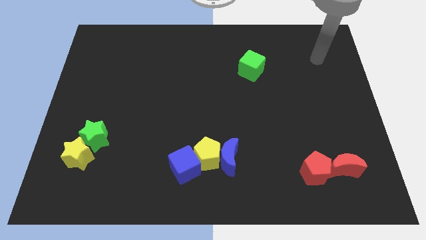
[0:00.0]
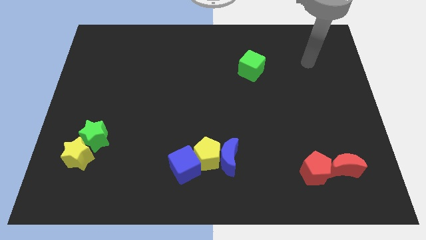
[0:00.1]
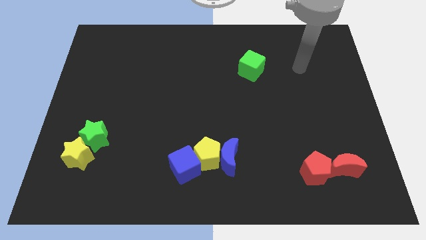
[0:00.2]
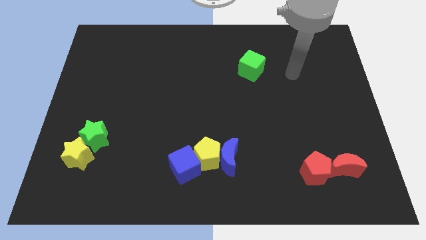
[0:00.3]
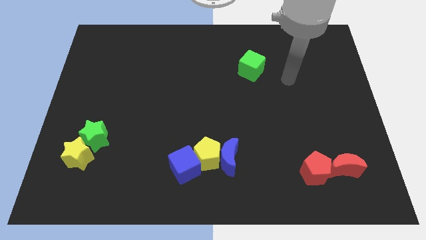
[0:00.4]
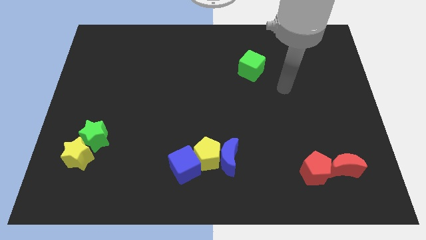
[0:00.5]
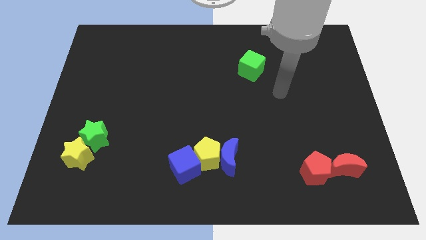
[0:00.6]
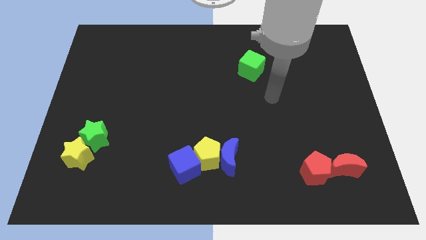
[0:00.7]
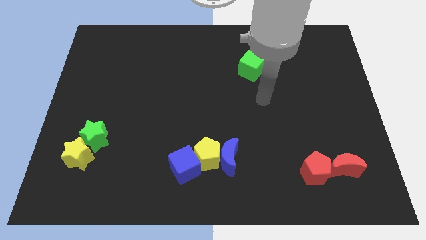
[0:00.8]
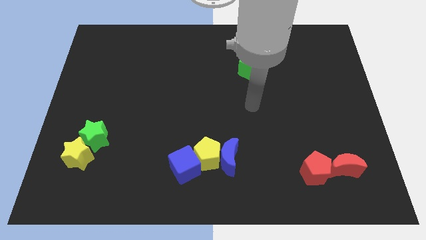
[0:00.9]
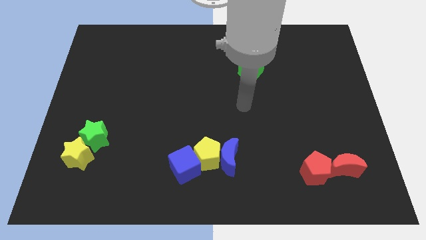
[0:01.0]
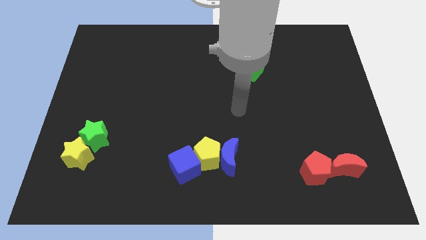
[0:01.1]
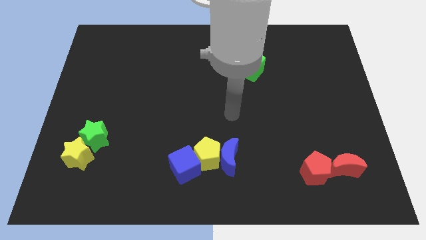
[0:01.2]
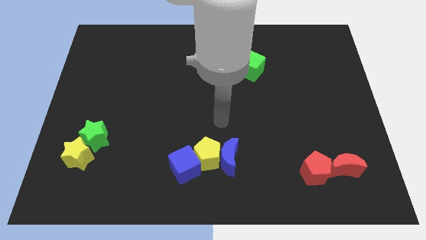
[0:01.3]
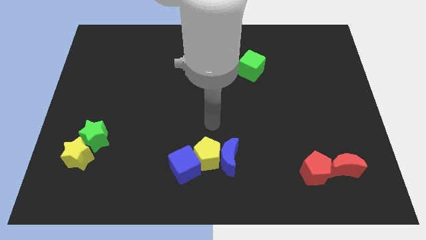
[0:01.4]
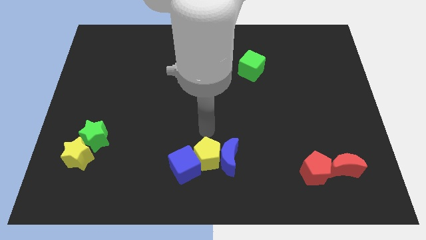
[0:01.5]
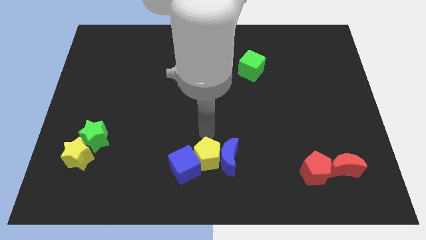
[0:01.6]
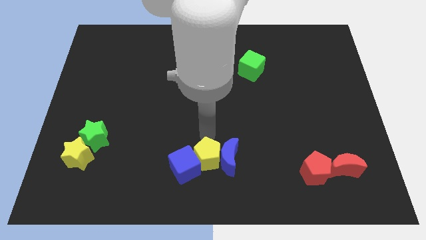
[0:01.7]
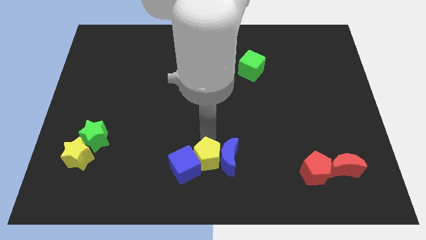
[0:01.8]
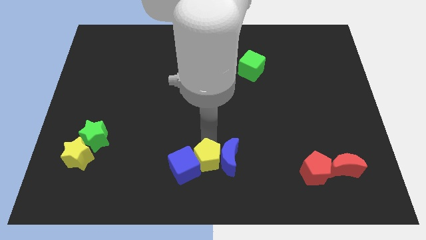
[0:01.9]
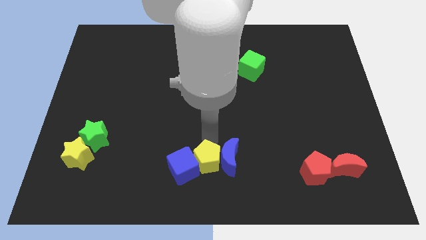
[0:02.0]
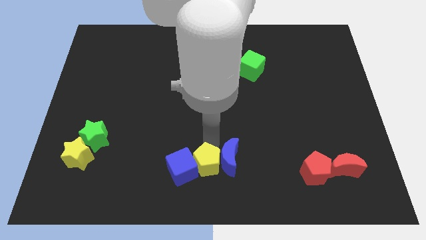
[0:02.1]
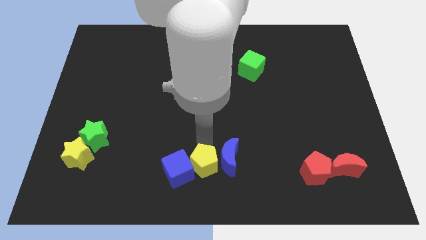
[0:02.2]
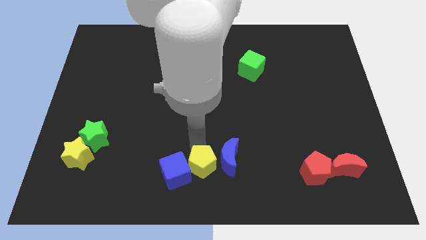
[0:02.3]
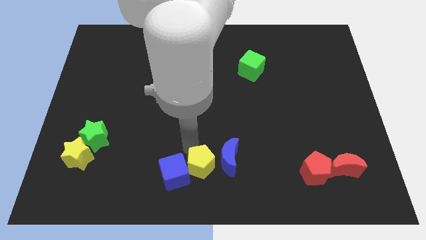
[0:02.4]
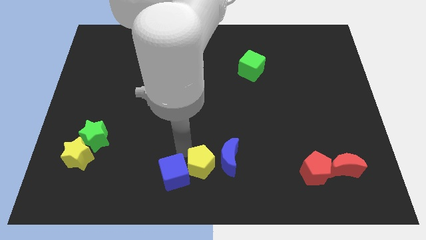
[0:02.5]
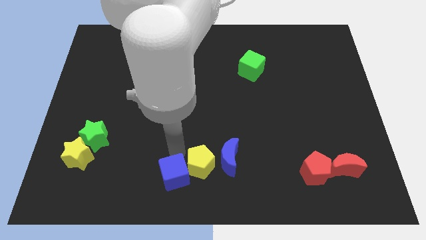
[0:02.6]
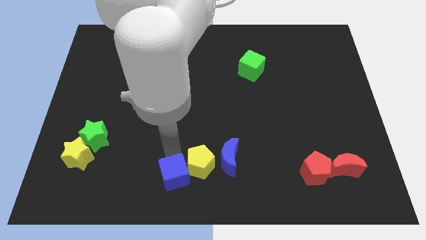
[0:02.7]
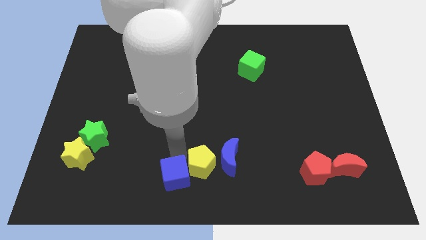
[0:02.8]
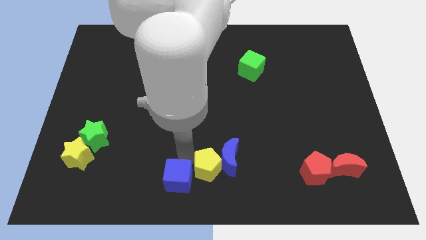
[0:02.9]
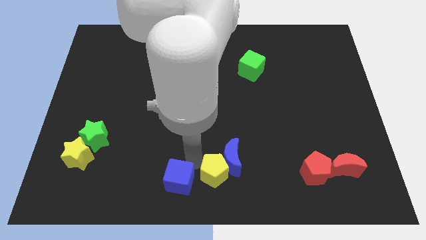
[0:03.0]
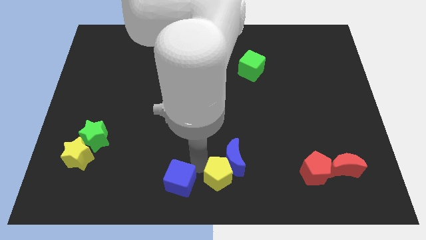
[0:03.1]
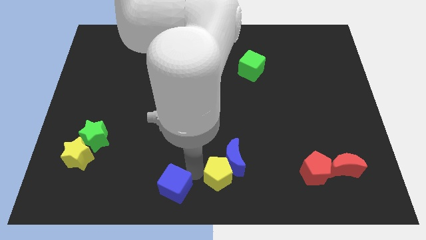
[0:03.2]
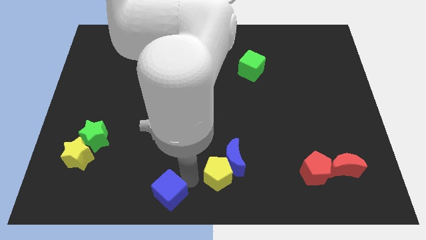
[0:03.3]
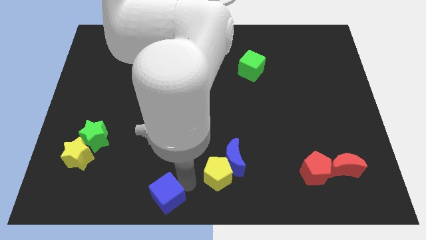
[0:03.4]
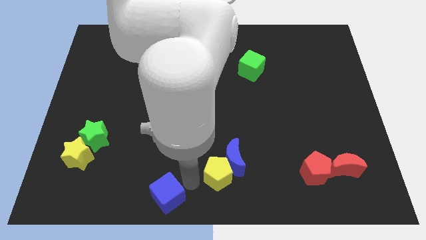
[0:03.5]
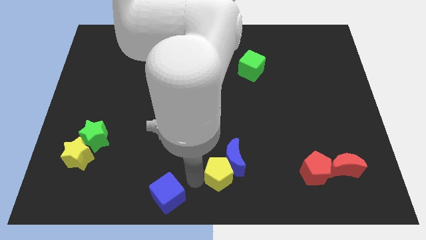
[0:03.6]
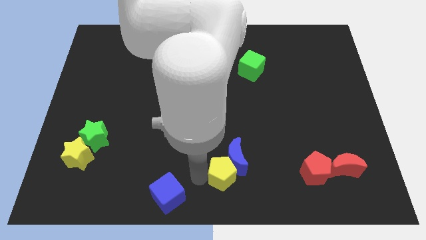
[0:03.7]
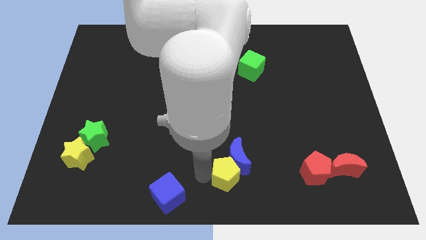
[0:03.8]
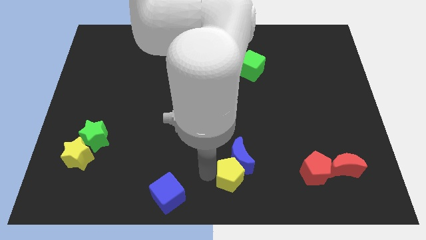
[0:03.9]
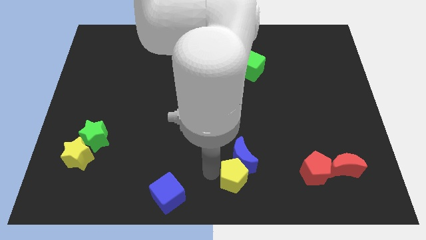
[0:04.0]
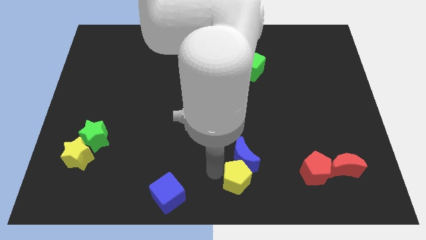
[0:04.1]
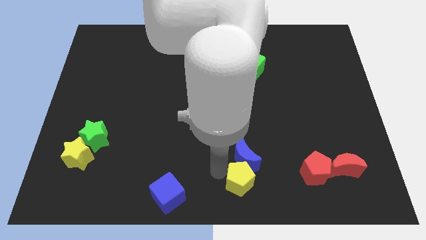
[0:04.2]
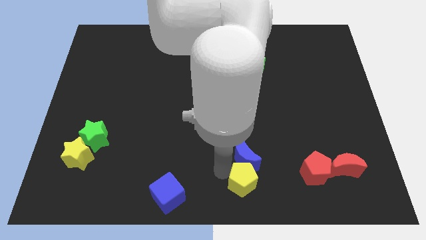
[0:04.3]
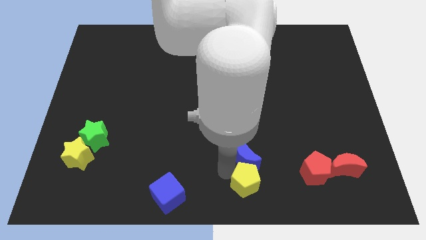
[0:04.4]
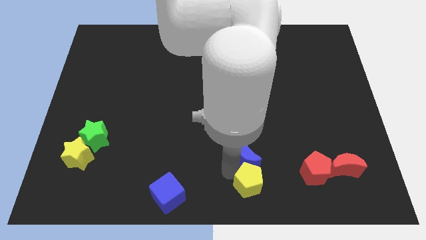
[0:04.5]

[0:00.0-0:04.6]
slightly slide the yellow pentagon right

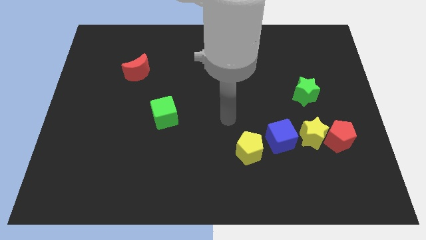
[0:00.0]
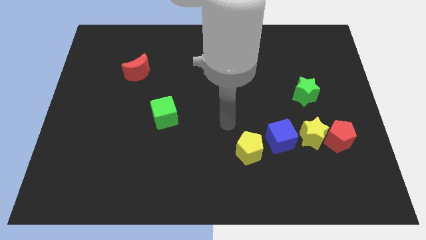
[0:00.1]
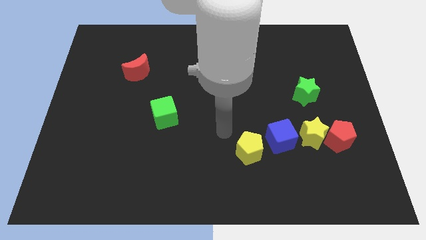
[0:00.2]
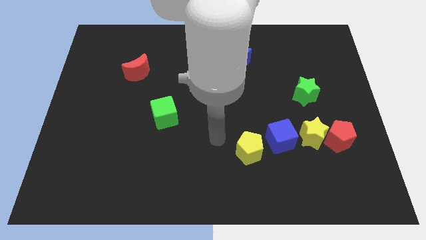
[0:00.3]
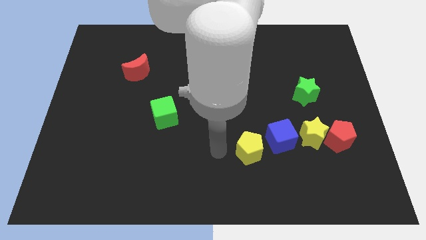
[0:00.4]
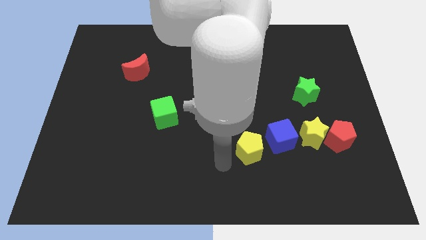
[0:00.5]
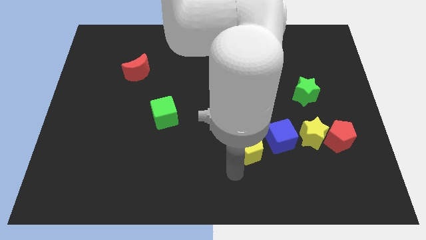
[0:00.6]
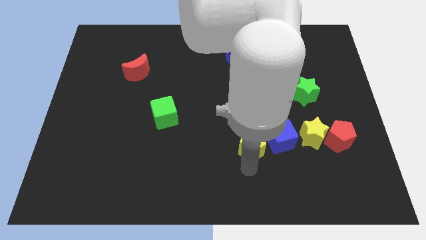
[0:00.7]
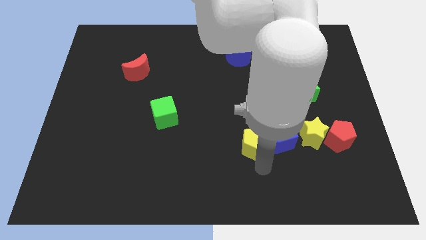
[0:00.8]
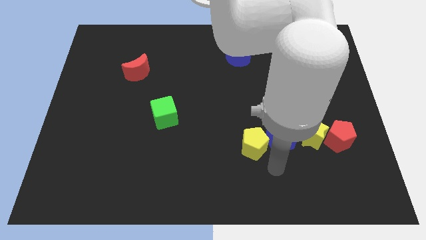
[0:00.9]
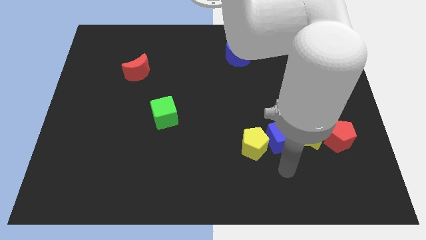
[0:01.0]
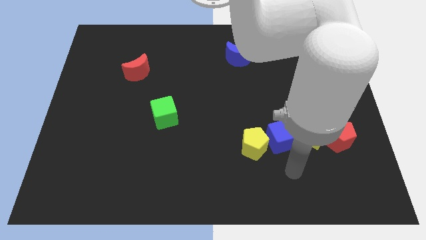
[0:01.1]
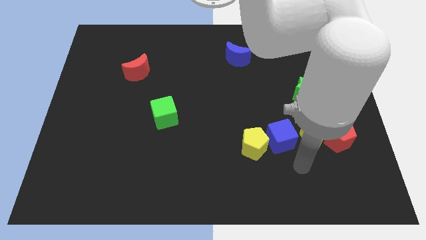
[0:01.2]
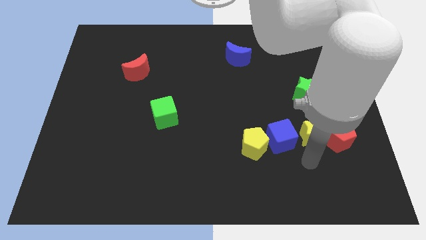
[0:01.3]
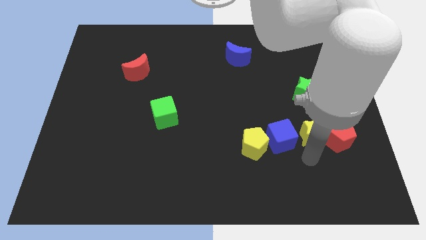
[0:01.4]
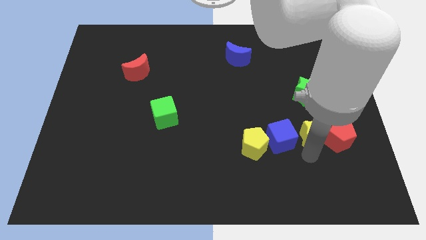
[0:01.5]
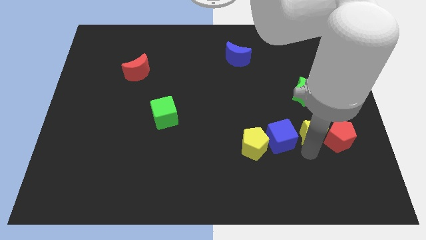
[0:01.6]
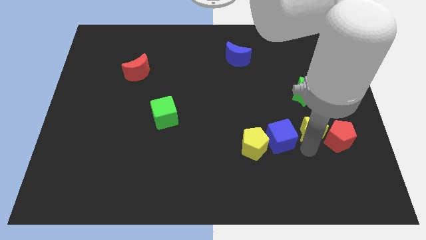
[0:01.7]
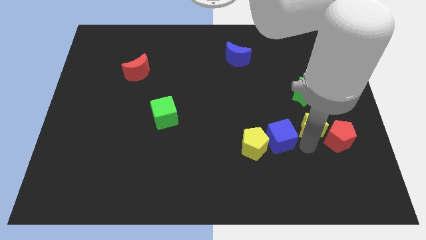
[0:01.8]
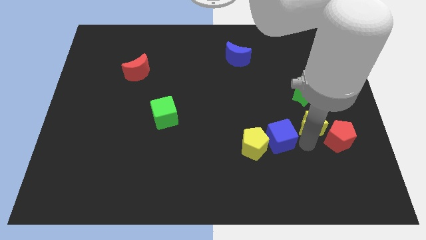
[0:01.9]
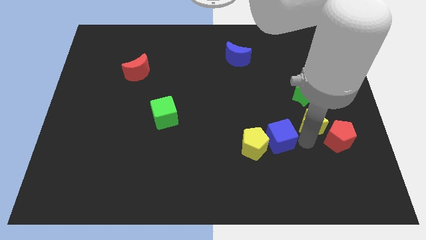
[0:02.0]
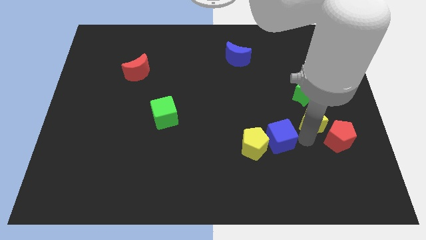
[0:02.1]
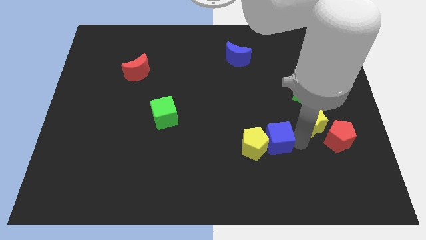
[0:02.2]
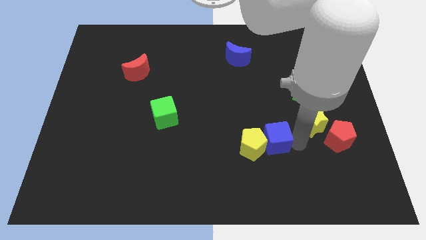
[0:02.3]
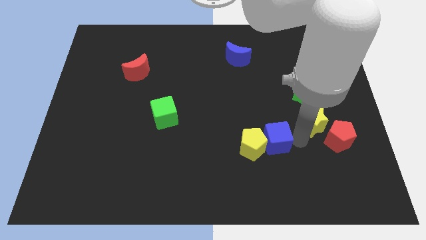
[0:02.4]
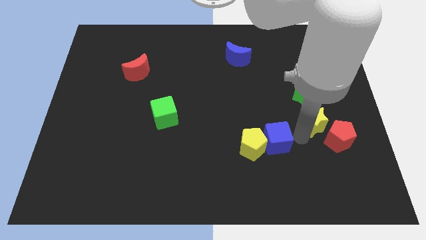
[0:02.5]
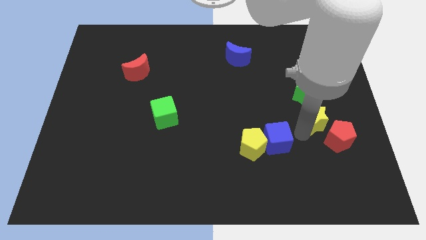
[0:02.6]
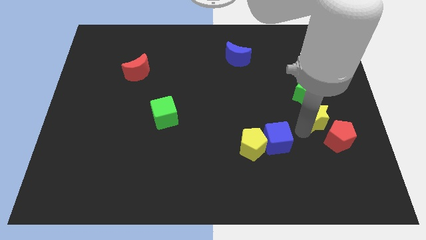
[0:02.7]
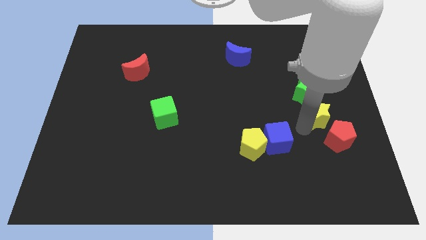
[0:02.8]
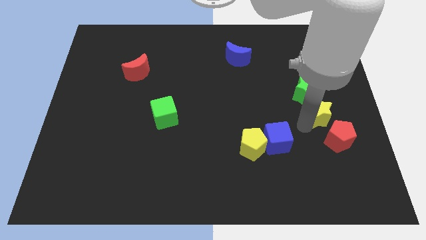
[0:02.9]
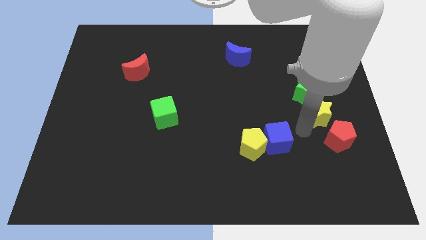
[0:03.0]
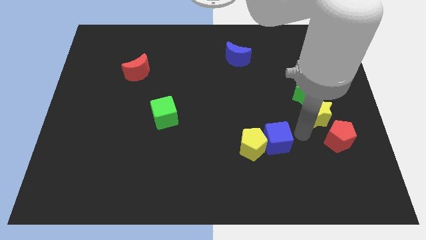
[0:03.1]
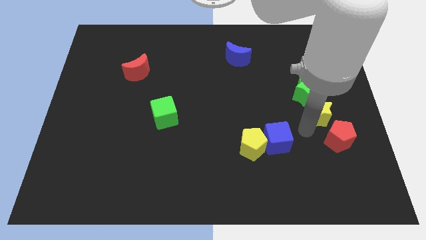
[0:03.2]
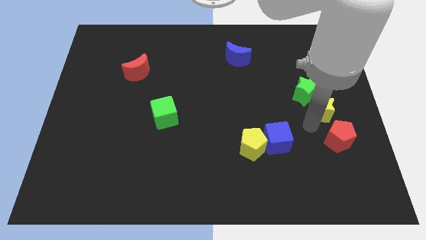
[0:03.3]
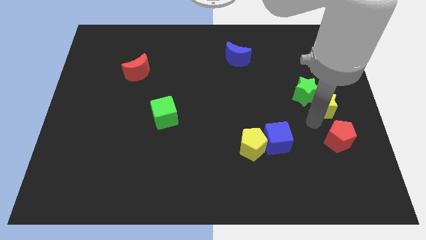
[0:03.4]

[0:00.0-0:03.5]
slightly slide the yellow star up
